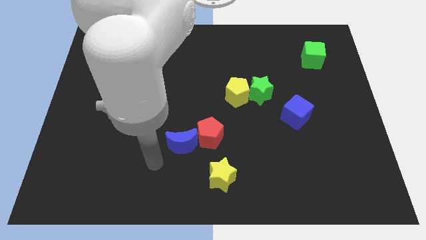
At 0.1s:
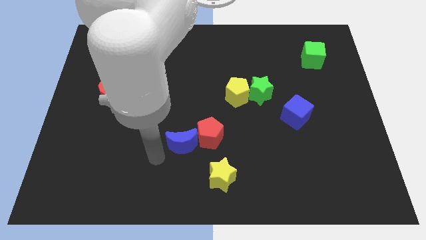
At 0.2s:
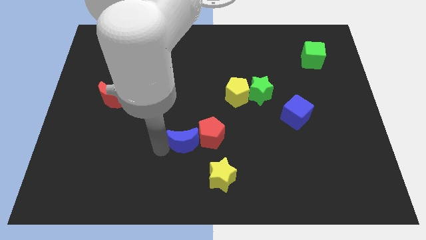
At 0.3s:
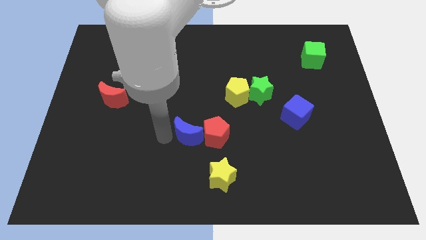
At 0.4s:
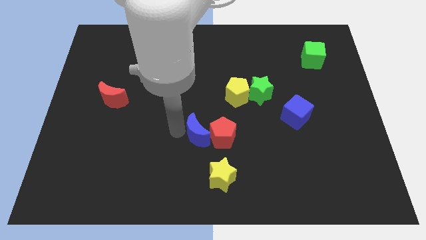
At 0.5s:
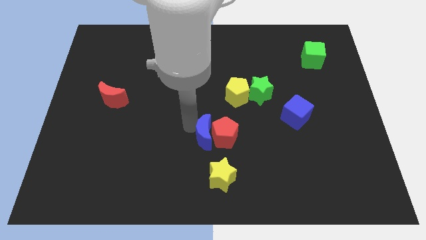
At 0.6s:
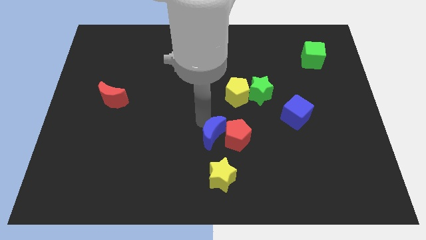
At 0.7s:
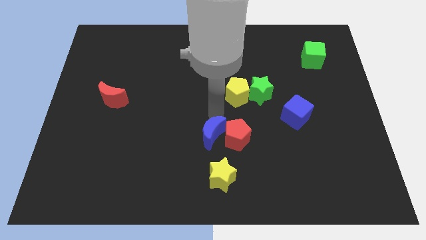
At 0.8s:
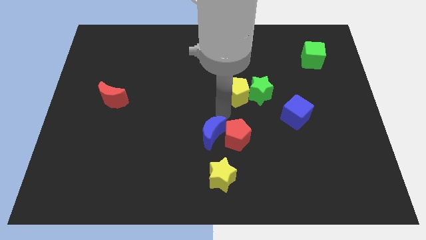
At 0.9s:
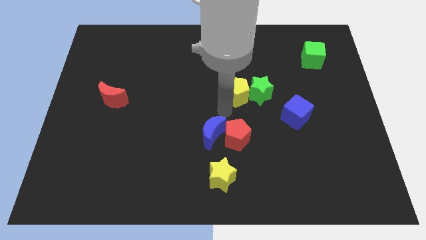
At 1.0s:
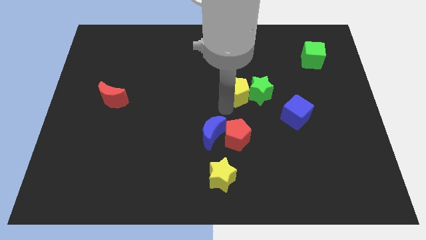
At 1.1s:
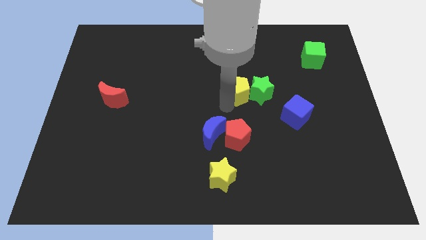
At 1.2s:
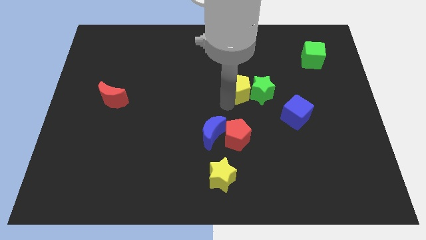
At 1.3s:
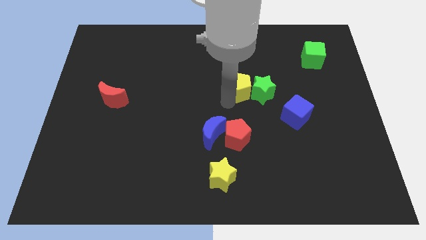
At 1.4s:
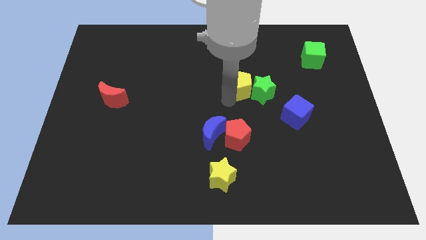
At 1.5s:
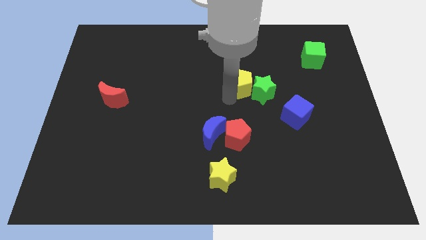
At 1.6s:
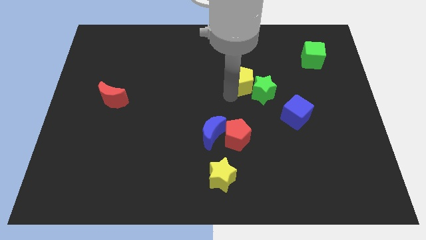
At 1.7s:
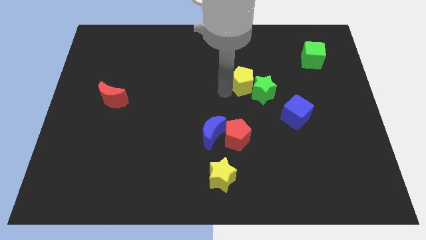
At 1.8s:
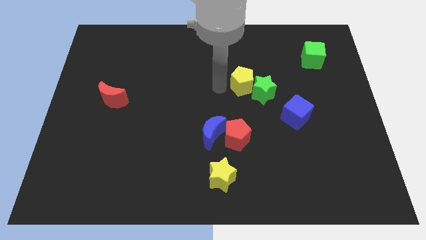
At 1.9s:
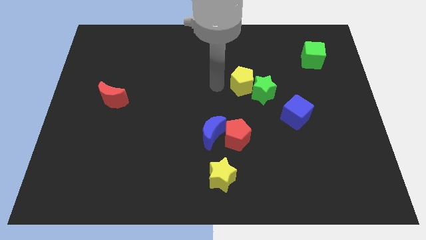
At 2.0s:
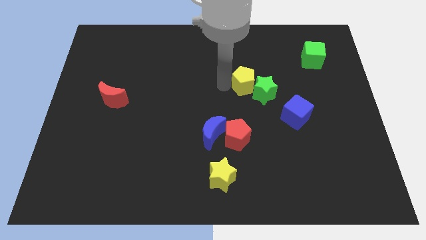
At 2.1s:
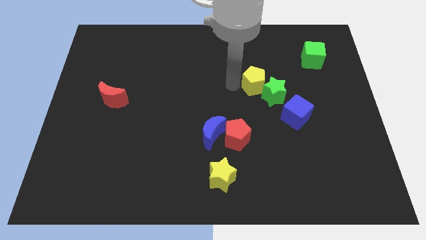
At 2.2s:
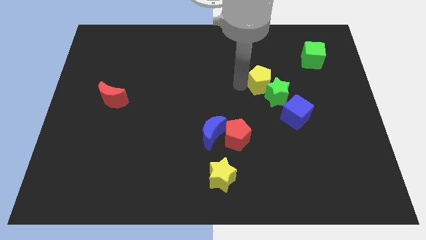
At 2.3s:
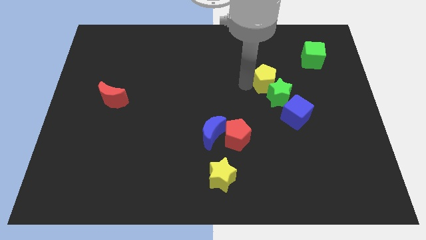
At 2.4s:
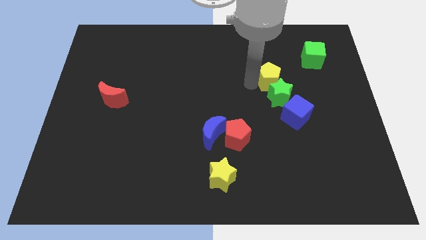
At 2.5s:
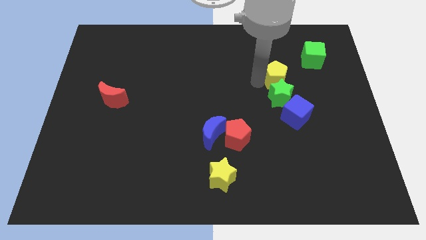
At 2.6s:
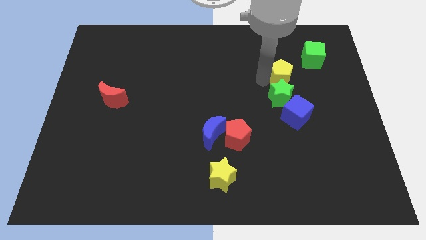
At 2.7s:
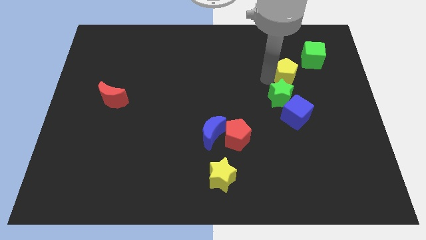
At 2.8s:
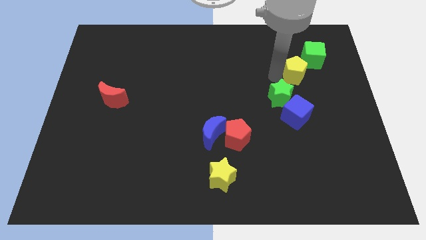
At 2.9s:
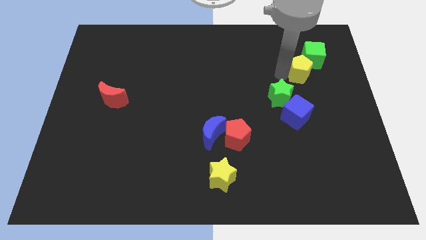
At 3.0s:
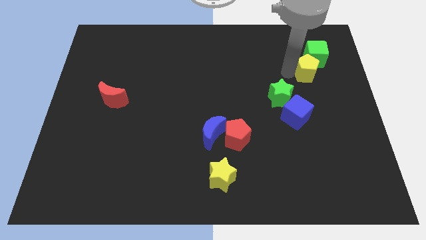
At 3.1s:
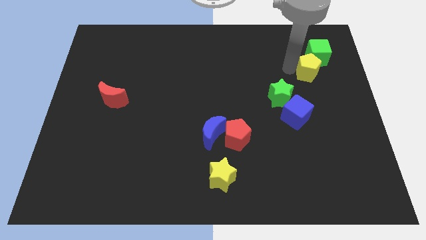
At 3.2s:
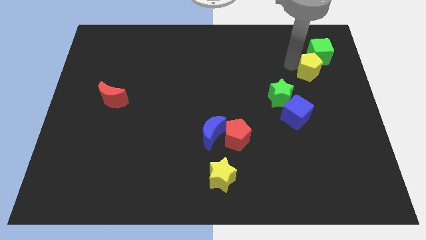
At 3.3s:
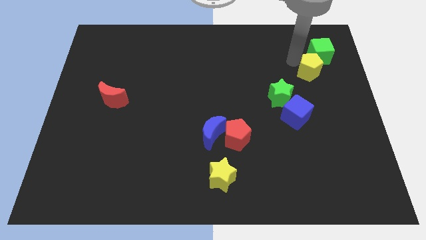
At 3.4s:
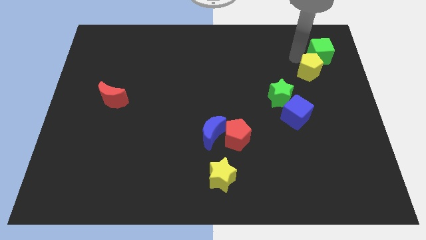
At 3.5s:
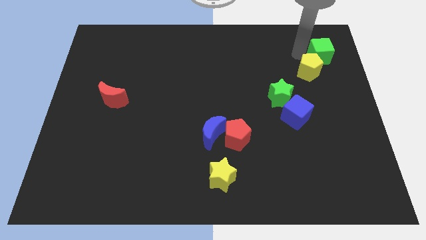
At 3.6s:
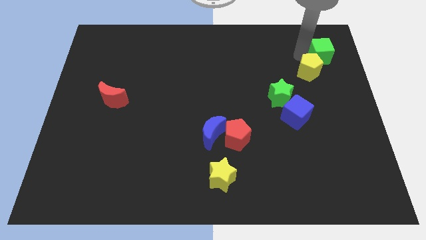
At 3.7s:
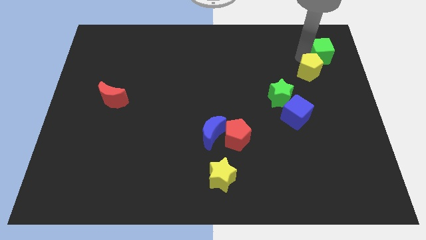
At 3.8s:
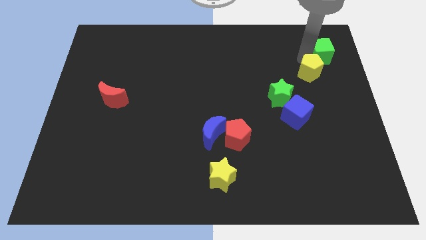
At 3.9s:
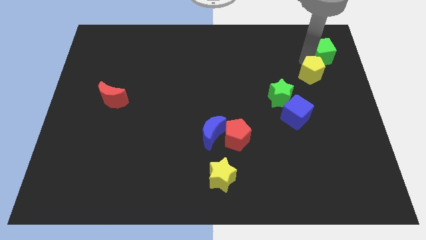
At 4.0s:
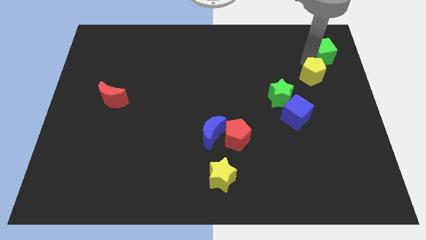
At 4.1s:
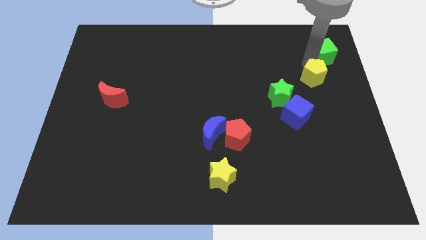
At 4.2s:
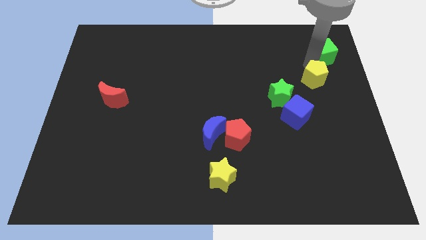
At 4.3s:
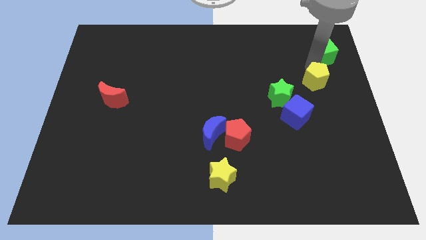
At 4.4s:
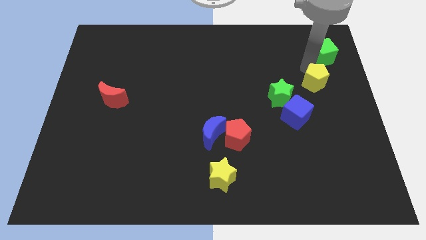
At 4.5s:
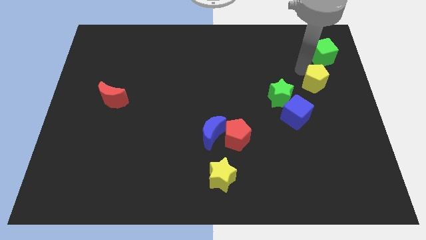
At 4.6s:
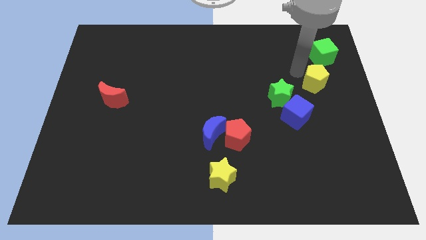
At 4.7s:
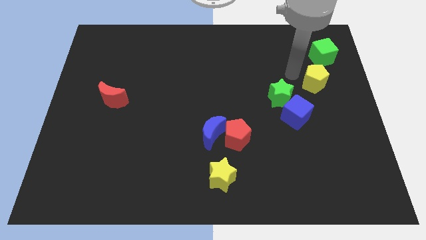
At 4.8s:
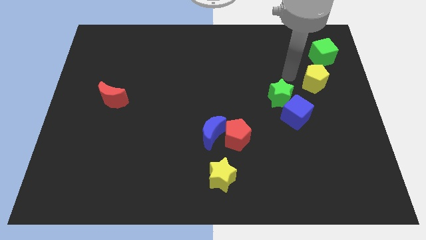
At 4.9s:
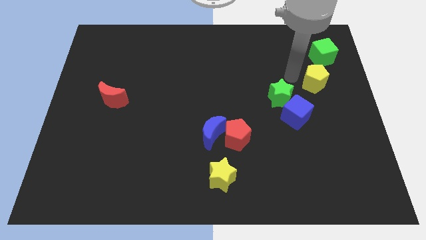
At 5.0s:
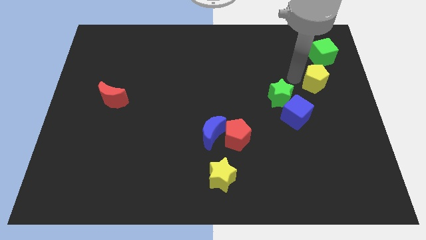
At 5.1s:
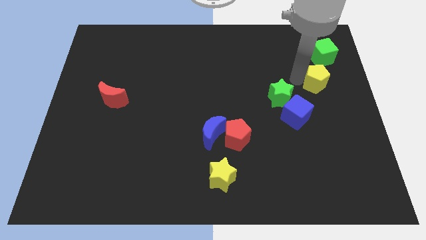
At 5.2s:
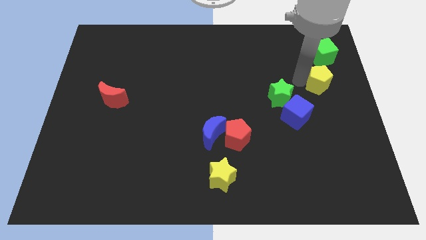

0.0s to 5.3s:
put the yellow pentagon to the right side of the board

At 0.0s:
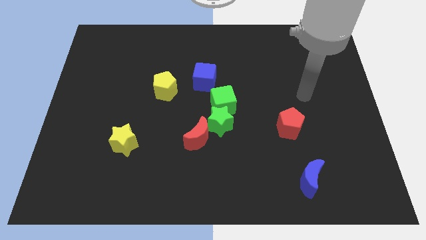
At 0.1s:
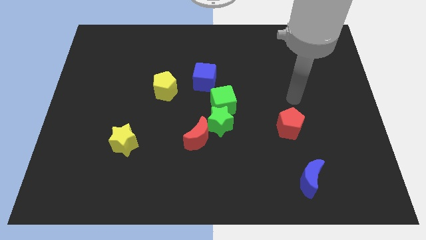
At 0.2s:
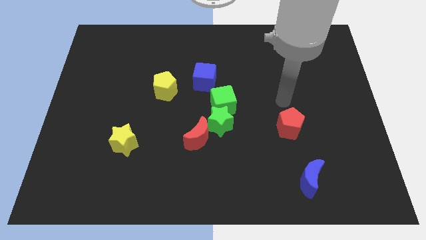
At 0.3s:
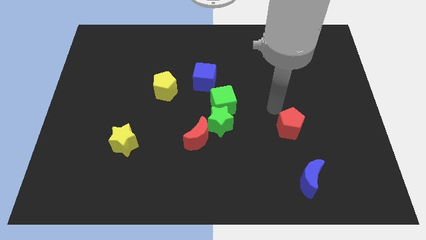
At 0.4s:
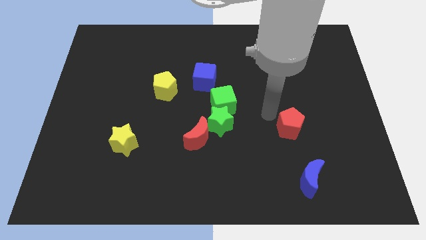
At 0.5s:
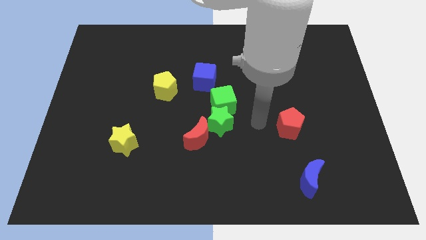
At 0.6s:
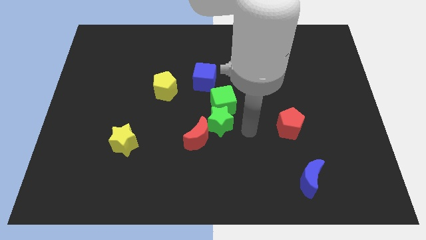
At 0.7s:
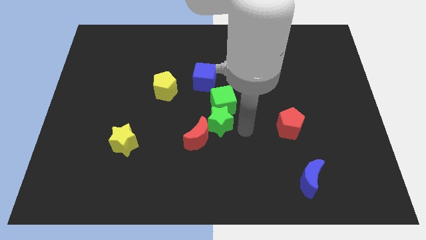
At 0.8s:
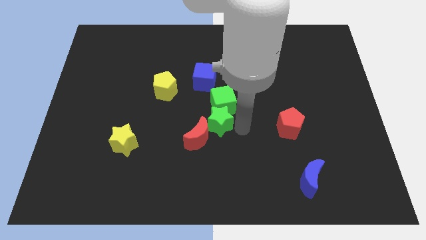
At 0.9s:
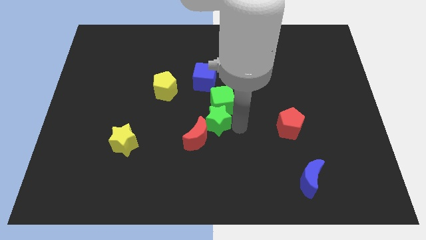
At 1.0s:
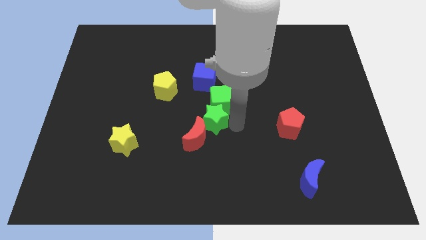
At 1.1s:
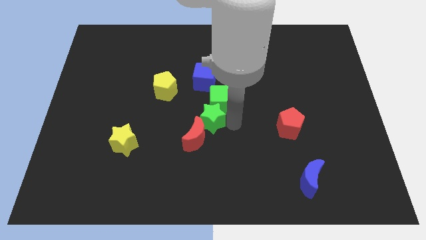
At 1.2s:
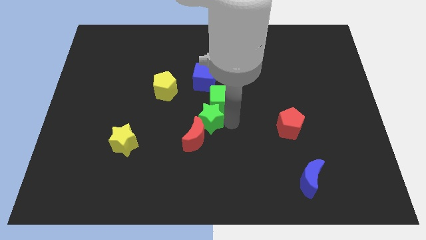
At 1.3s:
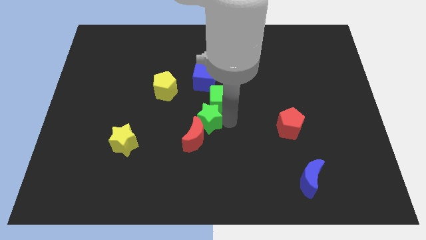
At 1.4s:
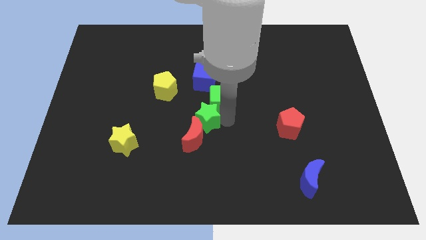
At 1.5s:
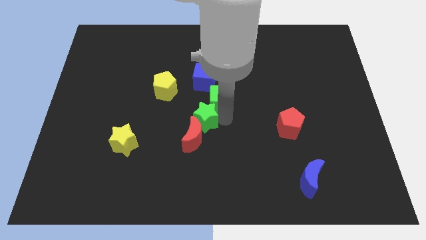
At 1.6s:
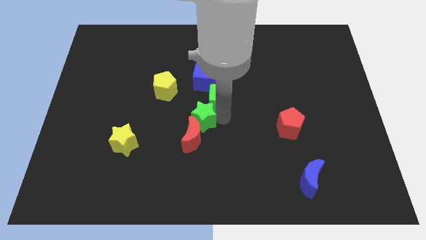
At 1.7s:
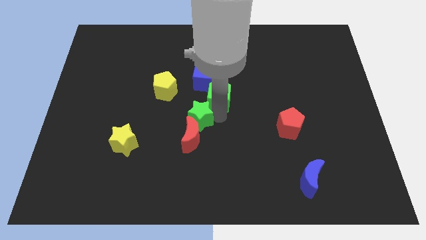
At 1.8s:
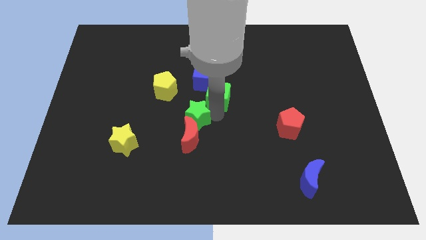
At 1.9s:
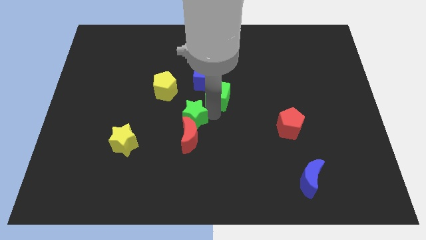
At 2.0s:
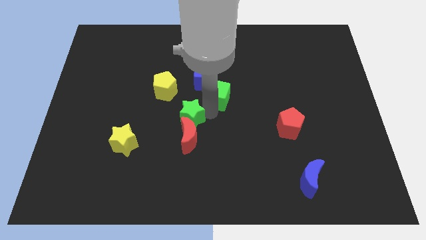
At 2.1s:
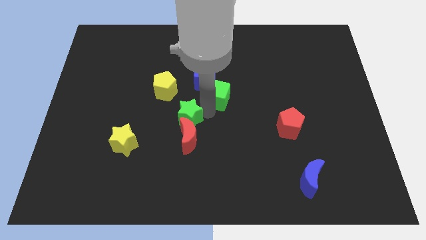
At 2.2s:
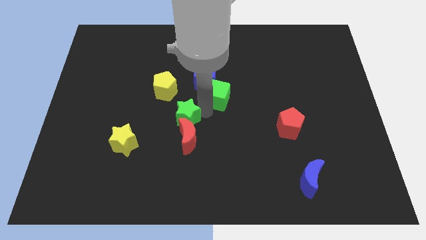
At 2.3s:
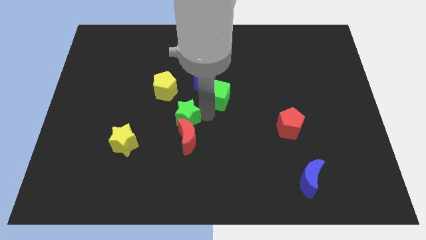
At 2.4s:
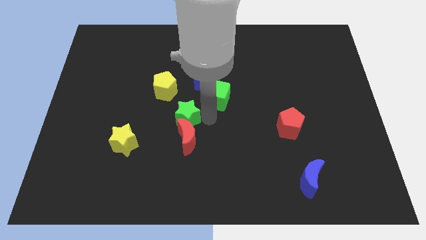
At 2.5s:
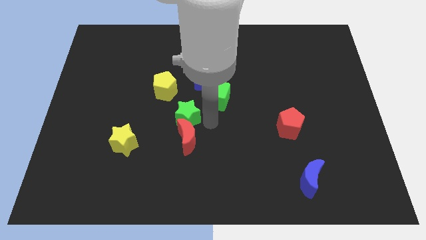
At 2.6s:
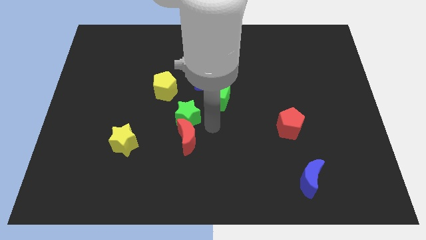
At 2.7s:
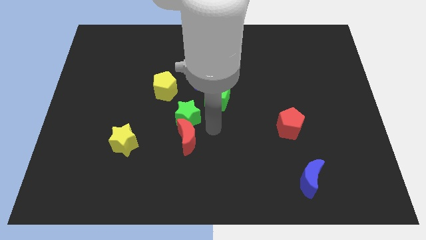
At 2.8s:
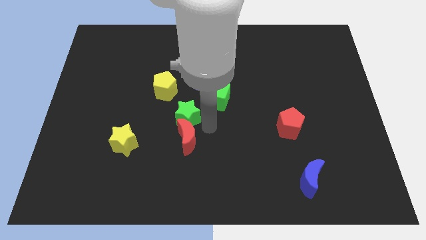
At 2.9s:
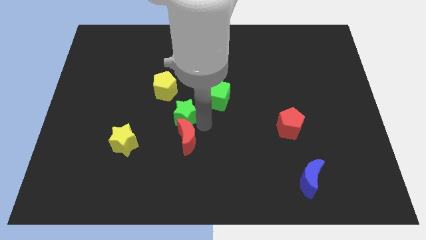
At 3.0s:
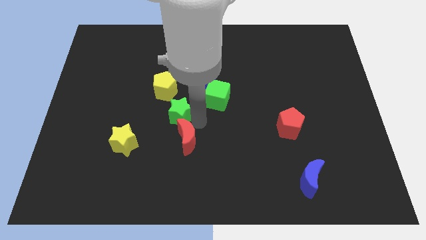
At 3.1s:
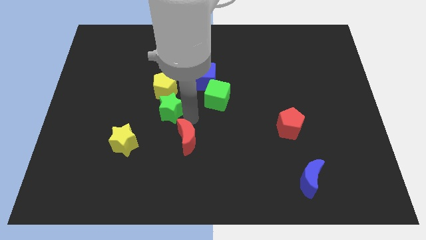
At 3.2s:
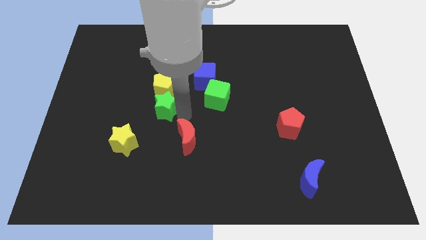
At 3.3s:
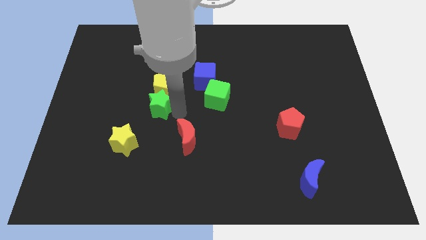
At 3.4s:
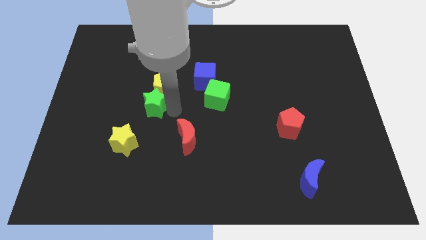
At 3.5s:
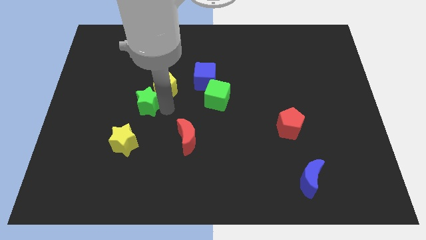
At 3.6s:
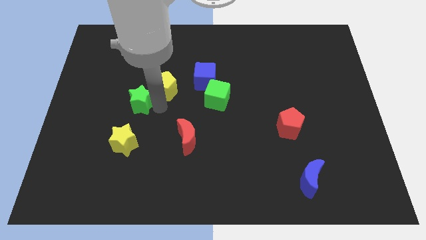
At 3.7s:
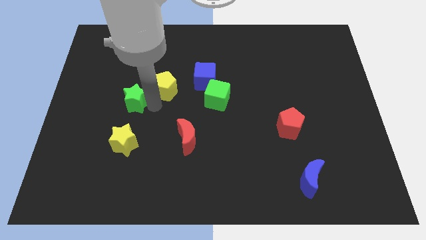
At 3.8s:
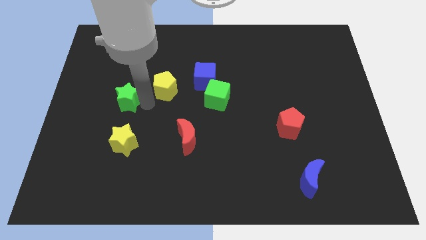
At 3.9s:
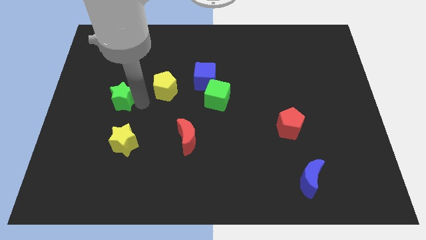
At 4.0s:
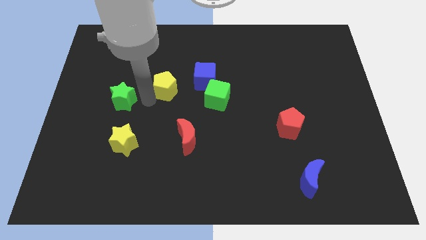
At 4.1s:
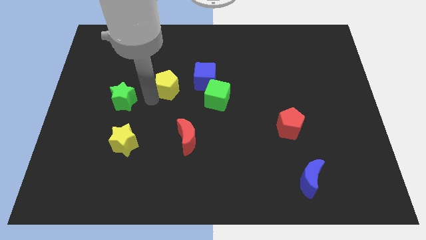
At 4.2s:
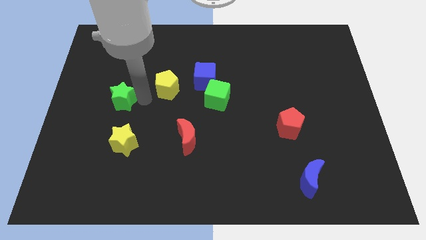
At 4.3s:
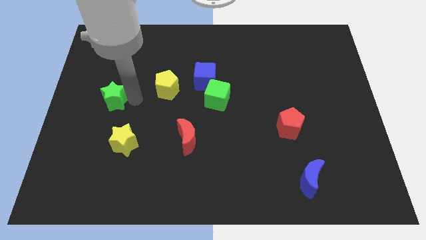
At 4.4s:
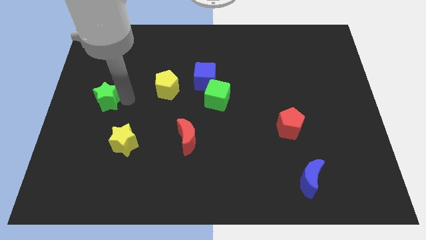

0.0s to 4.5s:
push the green star to the left side of the board
